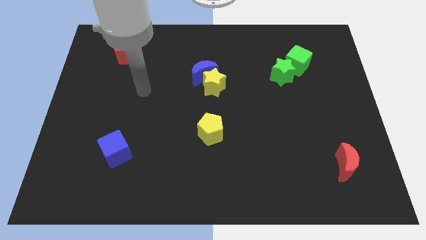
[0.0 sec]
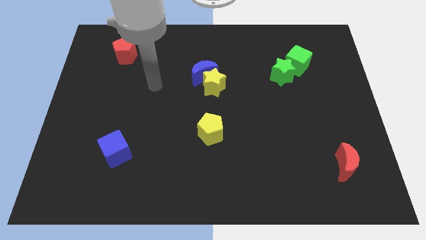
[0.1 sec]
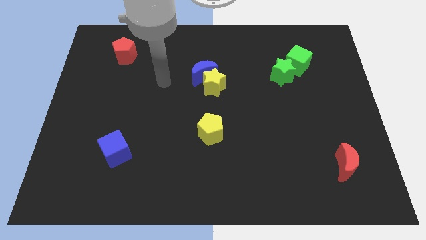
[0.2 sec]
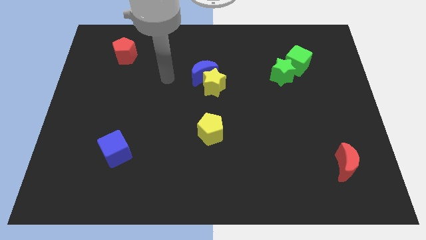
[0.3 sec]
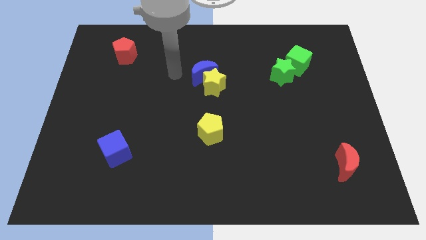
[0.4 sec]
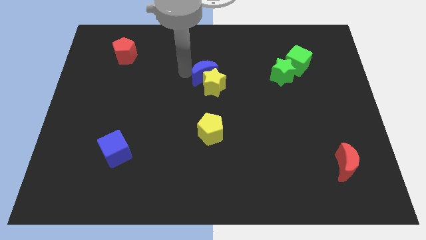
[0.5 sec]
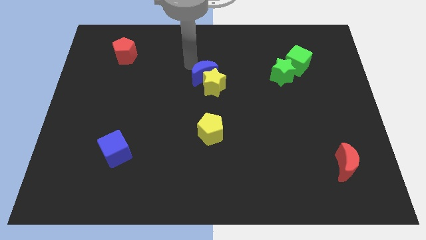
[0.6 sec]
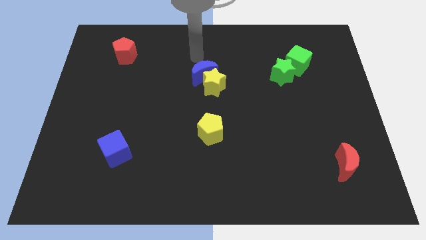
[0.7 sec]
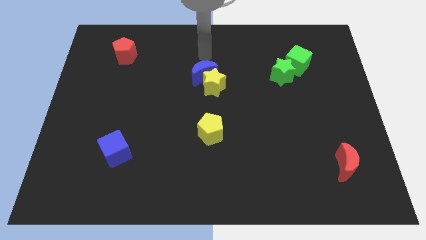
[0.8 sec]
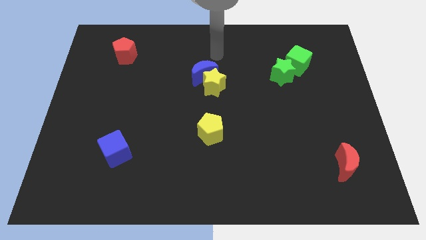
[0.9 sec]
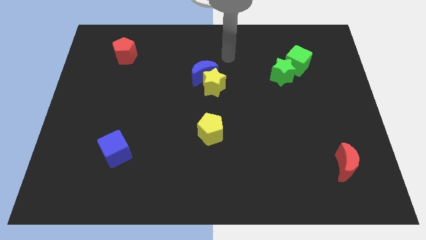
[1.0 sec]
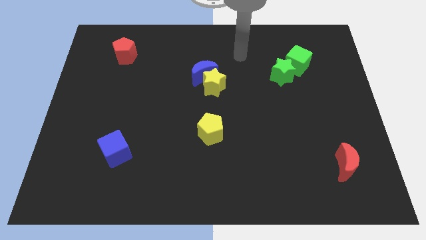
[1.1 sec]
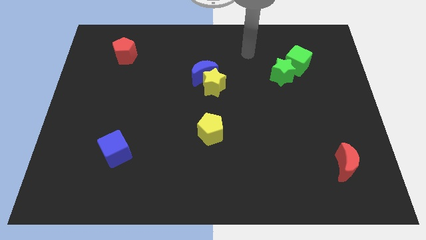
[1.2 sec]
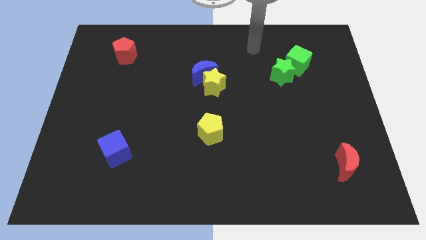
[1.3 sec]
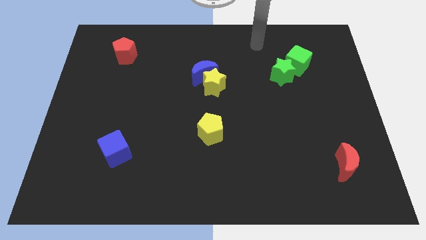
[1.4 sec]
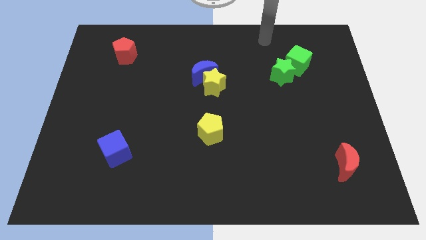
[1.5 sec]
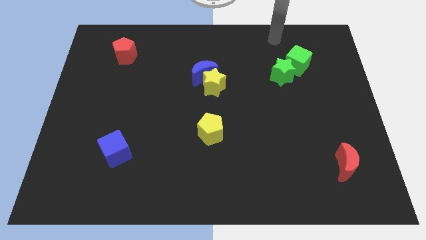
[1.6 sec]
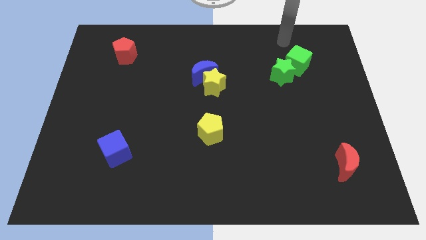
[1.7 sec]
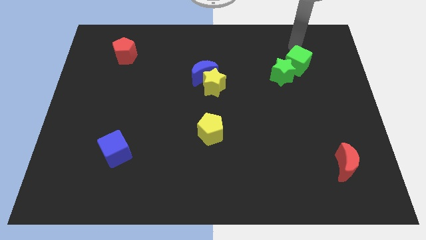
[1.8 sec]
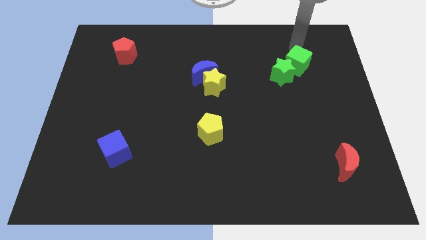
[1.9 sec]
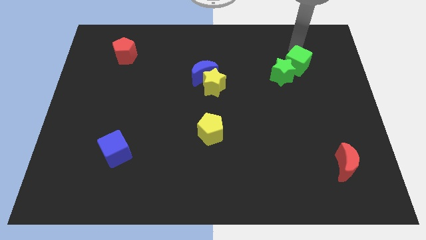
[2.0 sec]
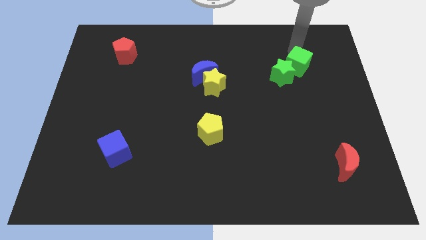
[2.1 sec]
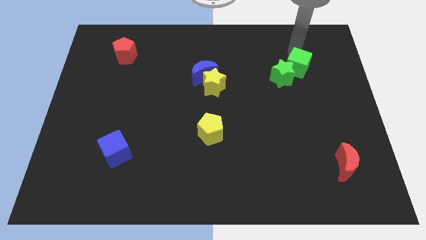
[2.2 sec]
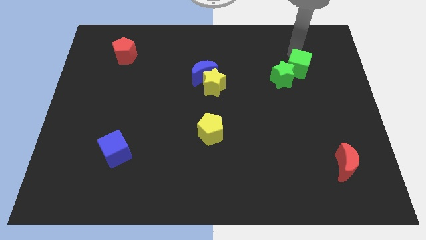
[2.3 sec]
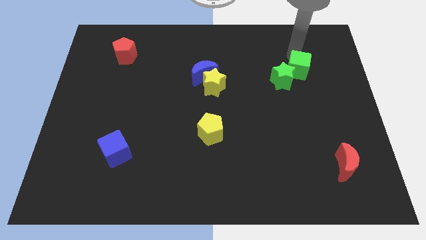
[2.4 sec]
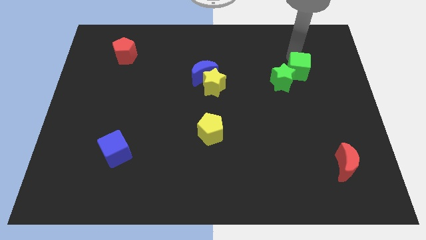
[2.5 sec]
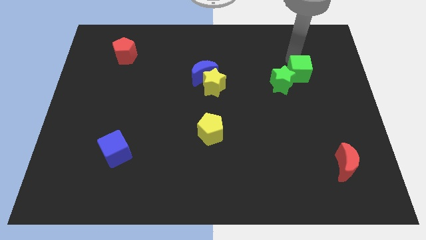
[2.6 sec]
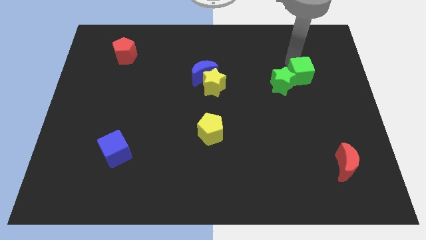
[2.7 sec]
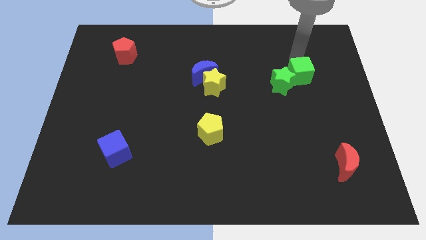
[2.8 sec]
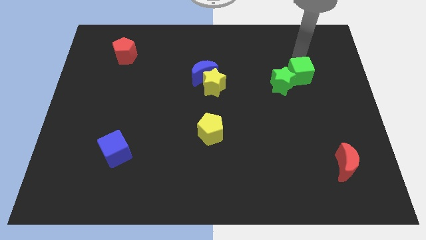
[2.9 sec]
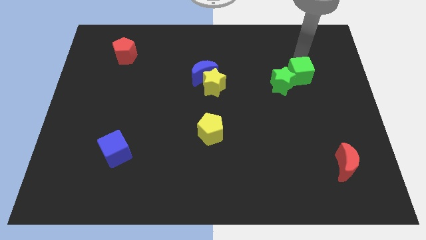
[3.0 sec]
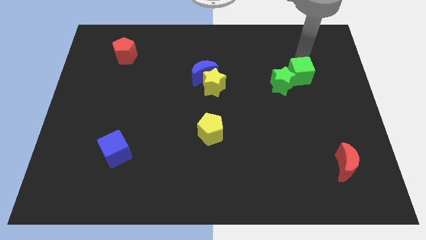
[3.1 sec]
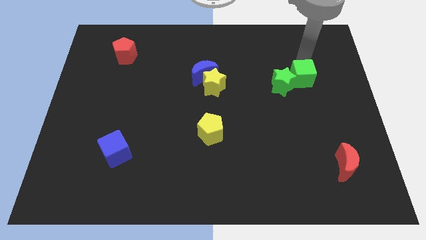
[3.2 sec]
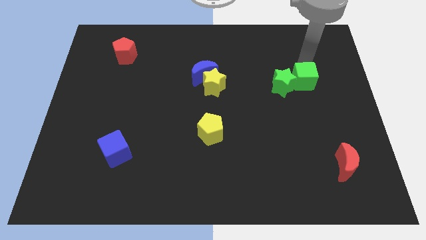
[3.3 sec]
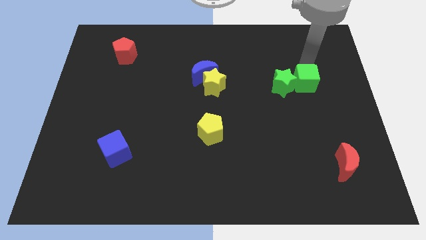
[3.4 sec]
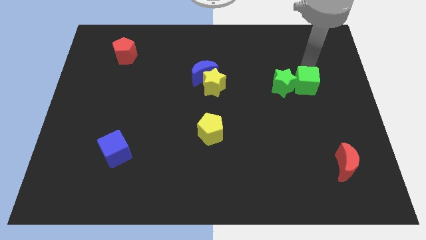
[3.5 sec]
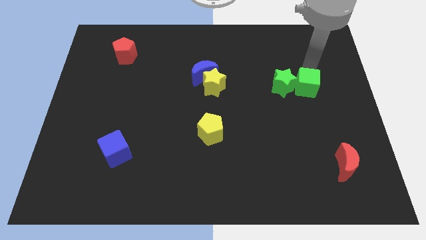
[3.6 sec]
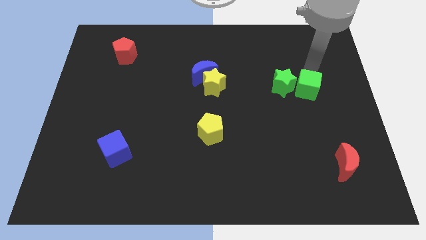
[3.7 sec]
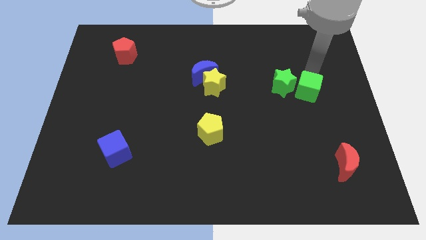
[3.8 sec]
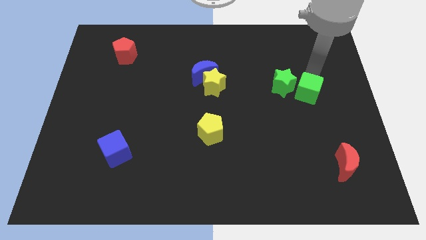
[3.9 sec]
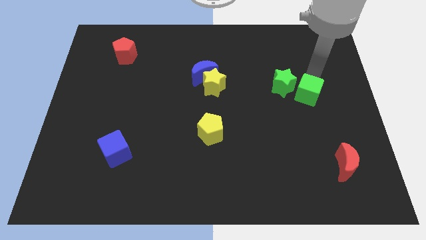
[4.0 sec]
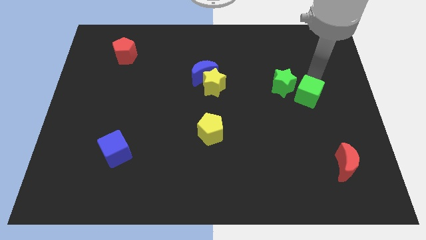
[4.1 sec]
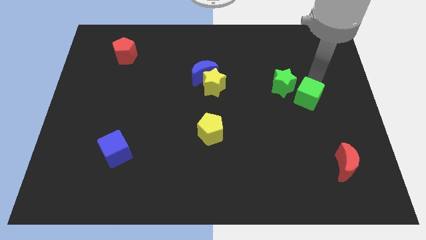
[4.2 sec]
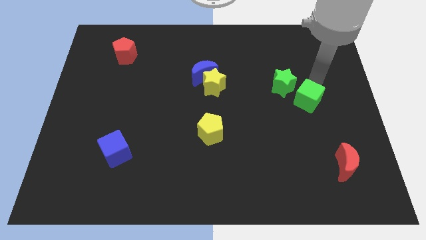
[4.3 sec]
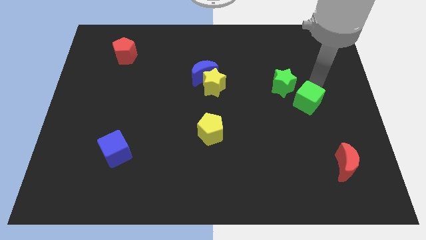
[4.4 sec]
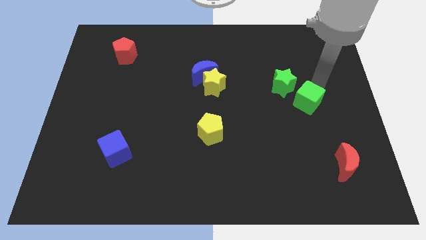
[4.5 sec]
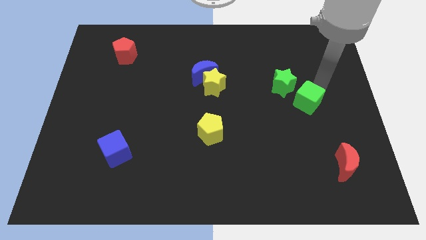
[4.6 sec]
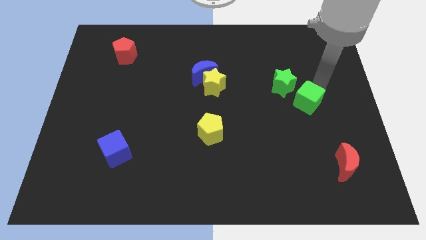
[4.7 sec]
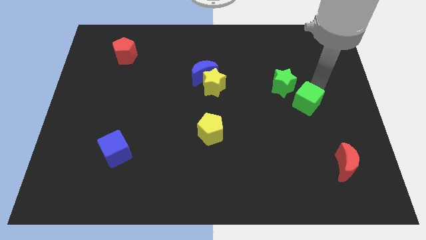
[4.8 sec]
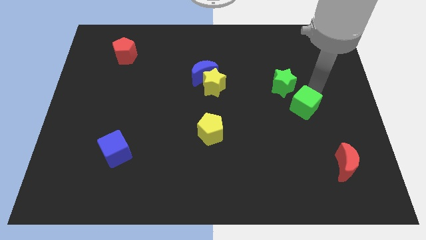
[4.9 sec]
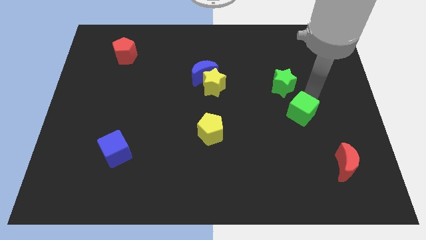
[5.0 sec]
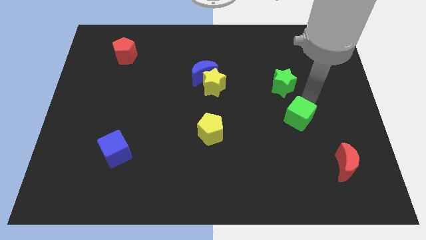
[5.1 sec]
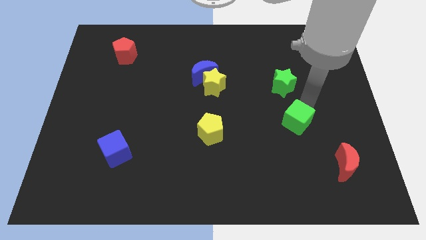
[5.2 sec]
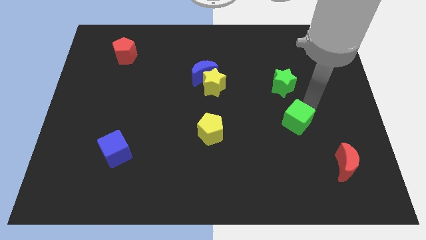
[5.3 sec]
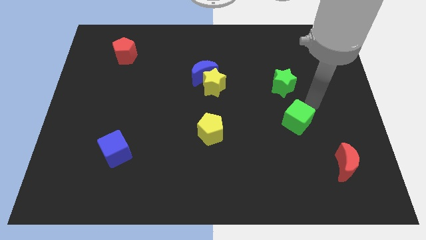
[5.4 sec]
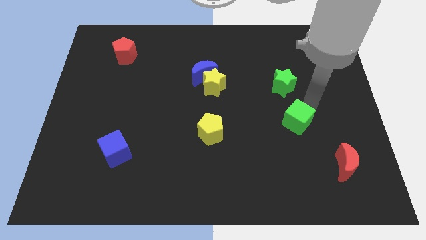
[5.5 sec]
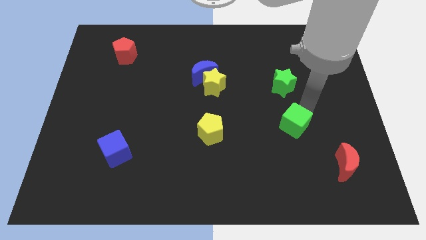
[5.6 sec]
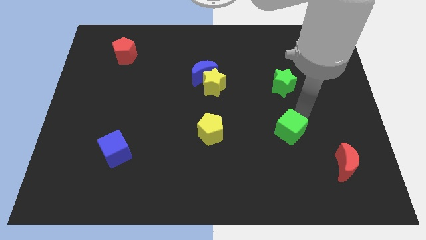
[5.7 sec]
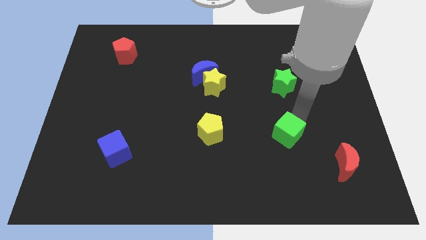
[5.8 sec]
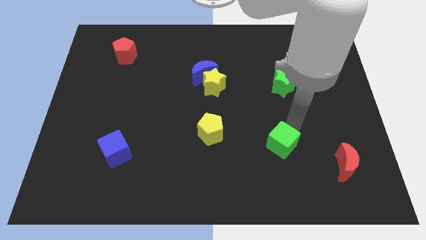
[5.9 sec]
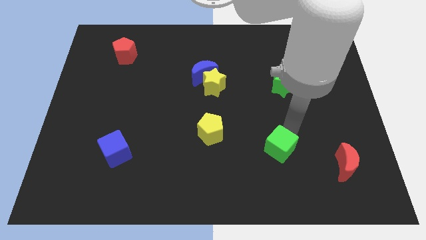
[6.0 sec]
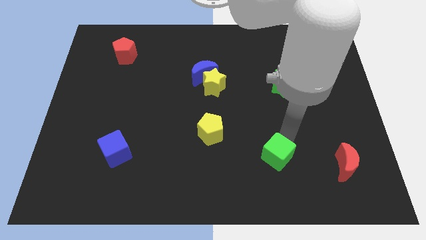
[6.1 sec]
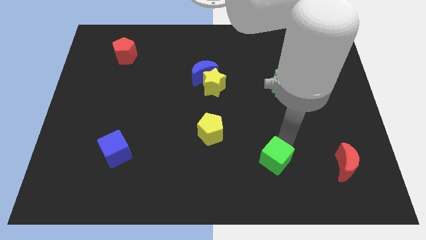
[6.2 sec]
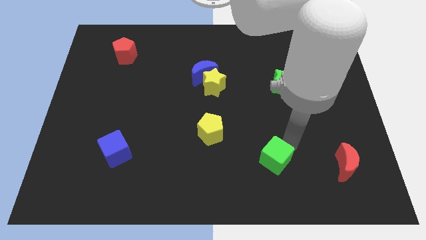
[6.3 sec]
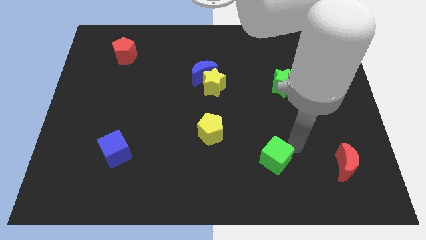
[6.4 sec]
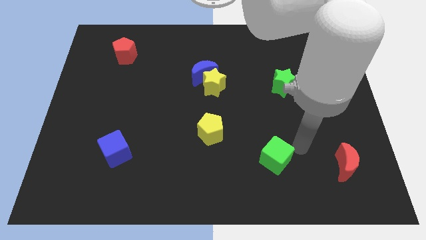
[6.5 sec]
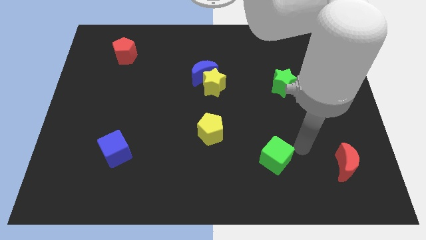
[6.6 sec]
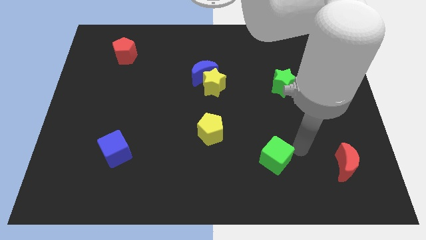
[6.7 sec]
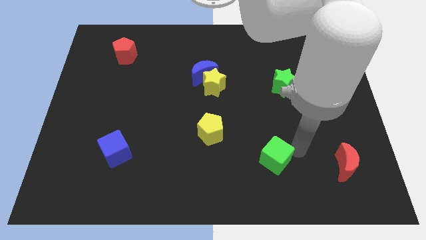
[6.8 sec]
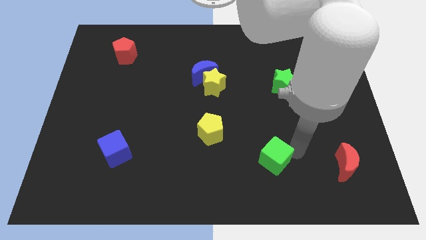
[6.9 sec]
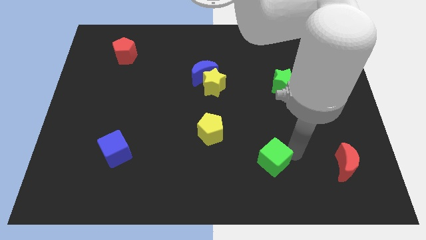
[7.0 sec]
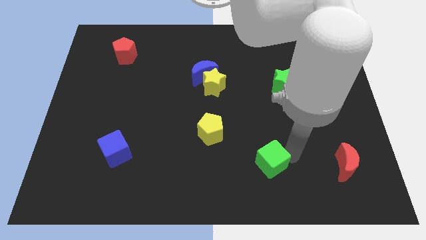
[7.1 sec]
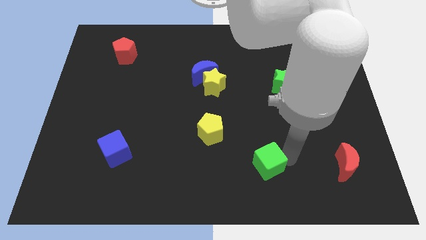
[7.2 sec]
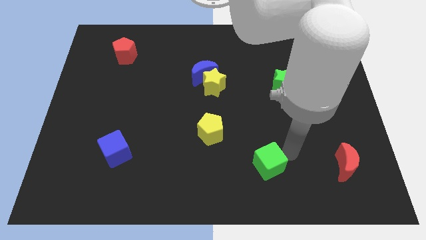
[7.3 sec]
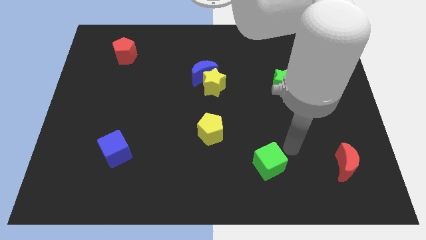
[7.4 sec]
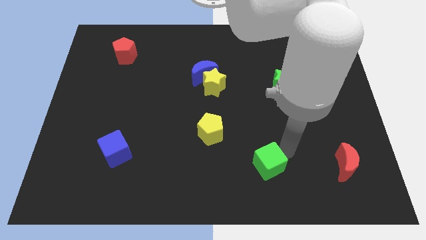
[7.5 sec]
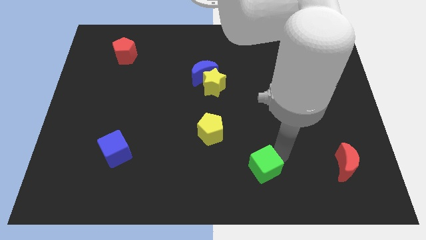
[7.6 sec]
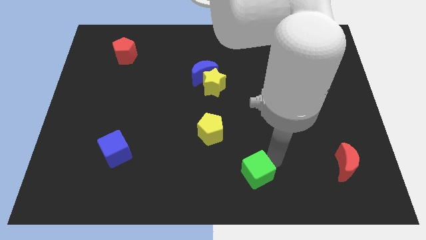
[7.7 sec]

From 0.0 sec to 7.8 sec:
slide the green cube to the bottom side
